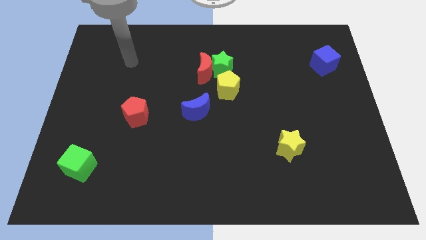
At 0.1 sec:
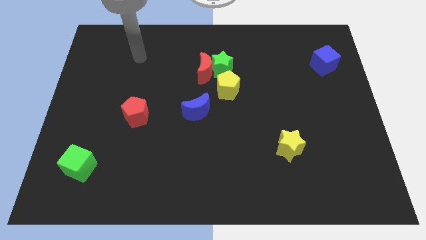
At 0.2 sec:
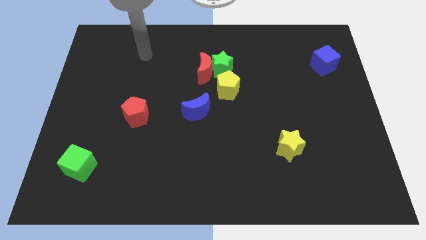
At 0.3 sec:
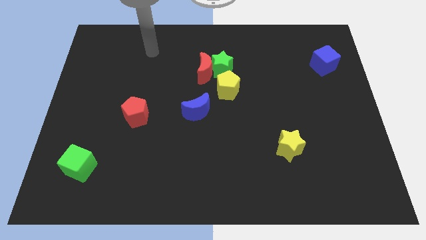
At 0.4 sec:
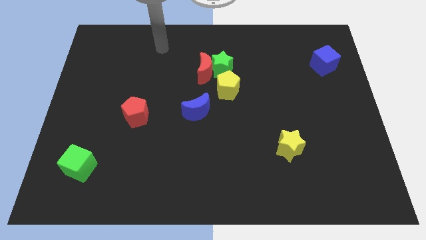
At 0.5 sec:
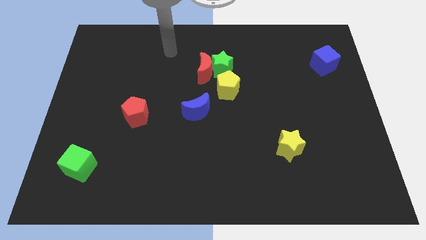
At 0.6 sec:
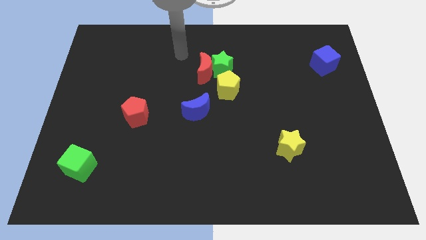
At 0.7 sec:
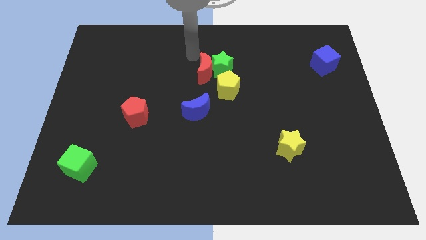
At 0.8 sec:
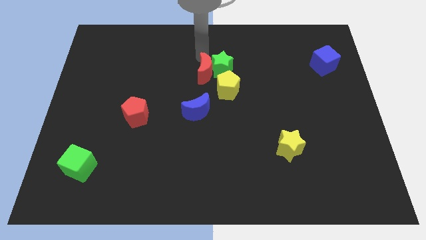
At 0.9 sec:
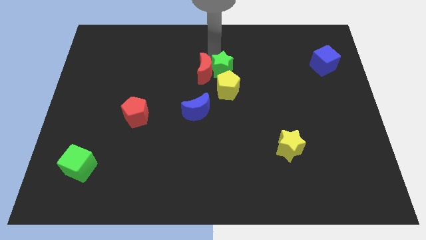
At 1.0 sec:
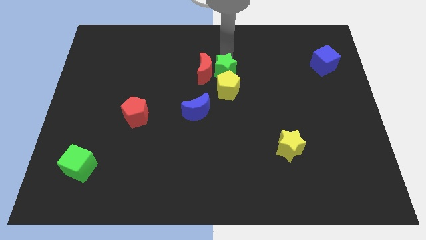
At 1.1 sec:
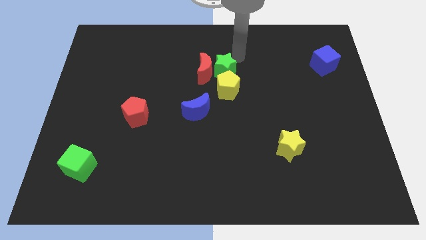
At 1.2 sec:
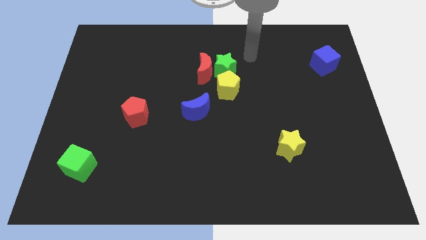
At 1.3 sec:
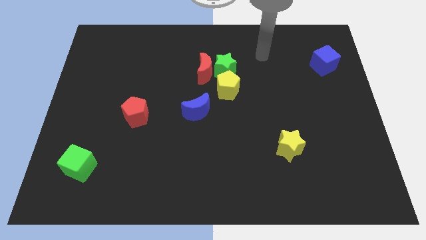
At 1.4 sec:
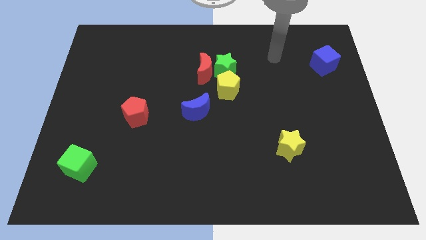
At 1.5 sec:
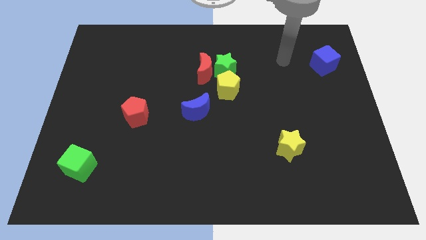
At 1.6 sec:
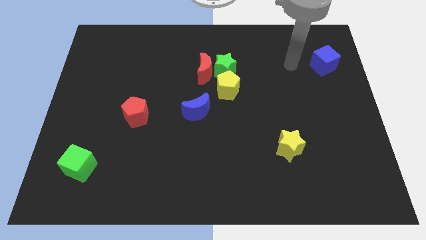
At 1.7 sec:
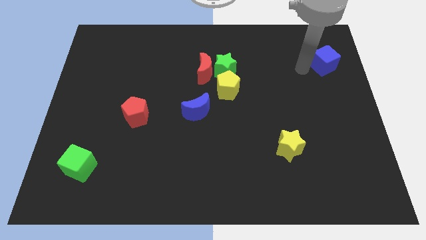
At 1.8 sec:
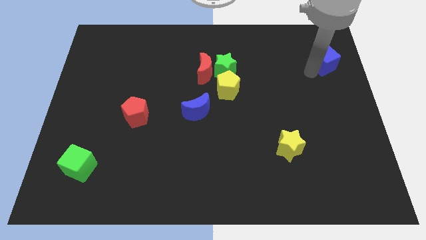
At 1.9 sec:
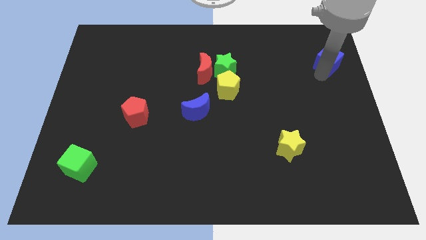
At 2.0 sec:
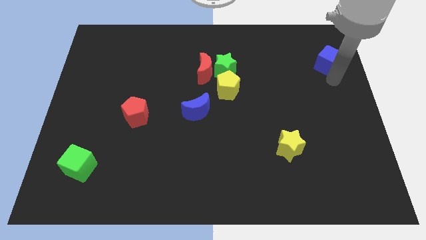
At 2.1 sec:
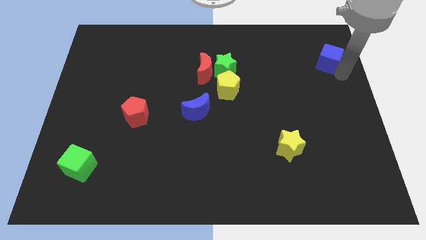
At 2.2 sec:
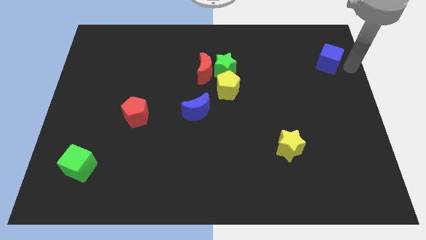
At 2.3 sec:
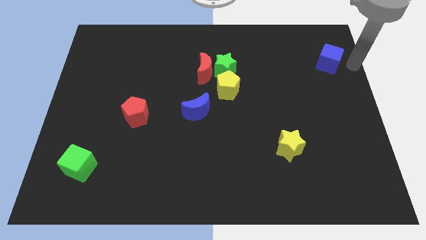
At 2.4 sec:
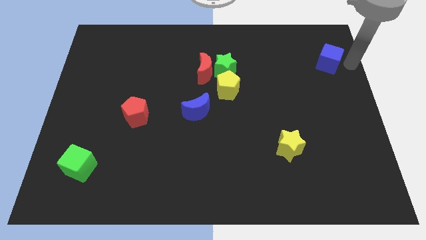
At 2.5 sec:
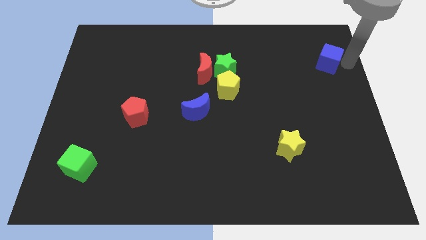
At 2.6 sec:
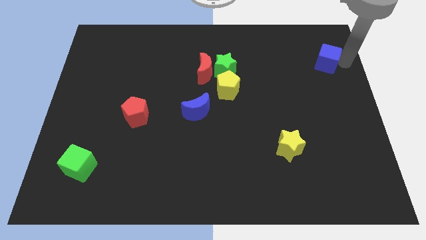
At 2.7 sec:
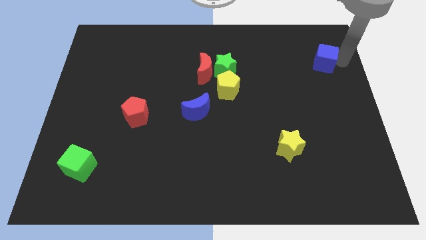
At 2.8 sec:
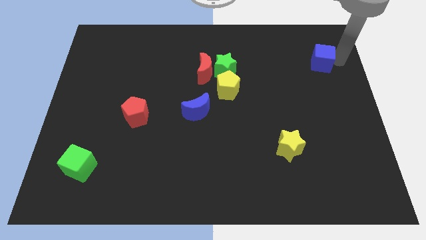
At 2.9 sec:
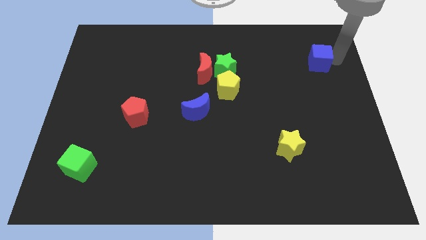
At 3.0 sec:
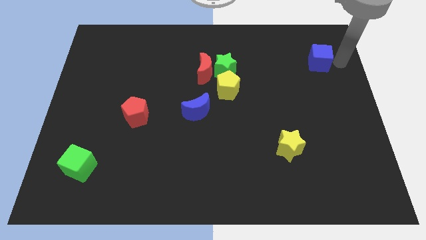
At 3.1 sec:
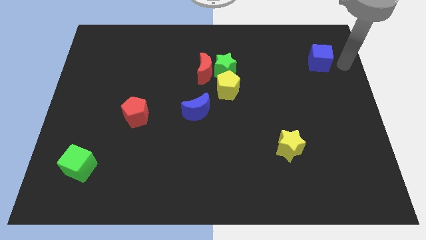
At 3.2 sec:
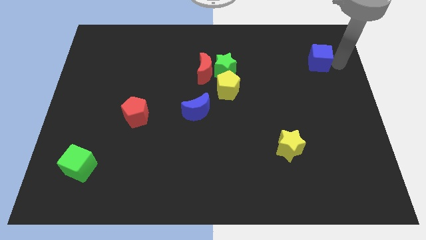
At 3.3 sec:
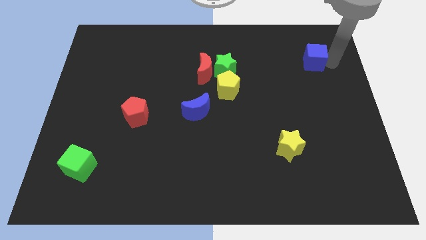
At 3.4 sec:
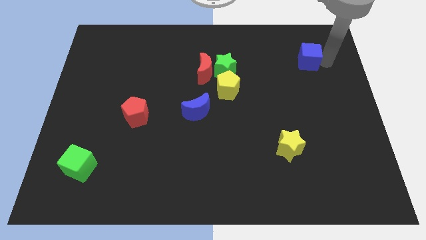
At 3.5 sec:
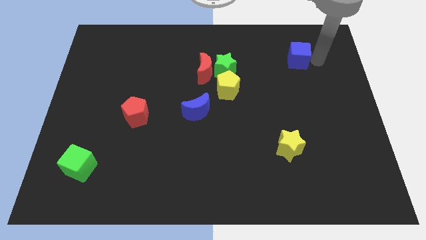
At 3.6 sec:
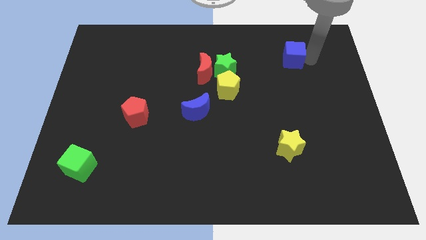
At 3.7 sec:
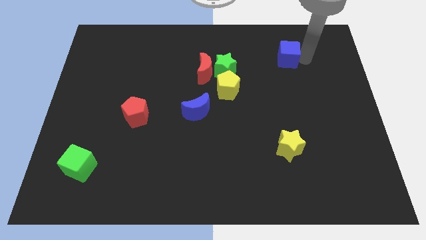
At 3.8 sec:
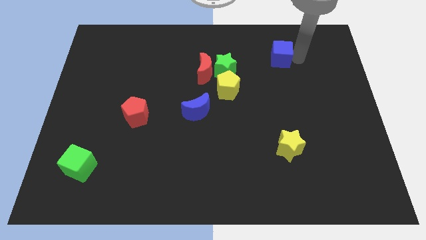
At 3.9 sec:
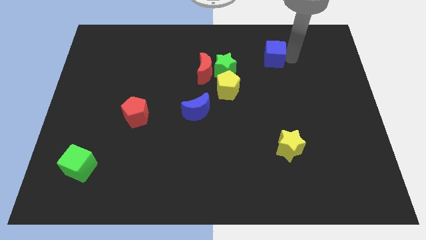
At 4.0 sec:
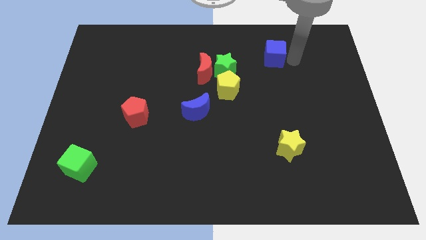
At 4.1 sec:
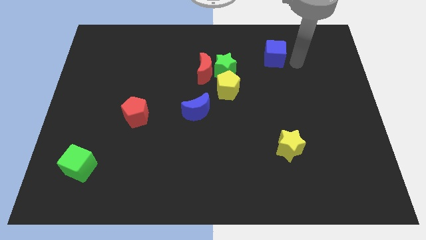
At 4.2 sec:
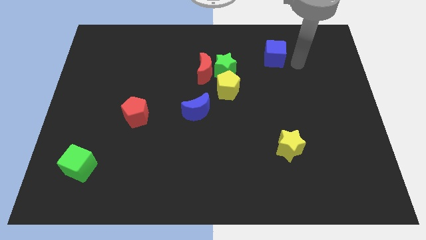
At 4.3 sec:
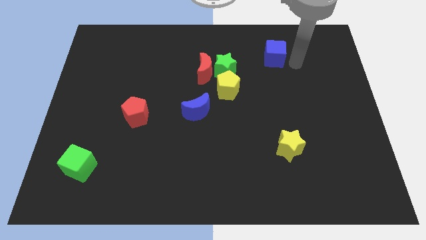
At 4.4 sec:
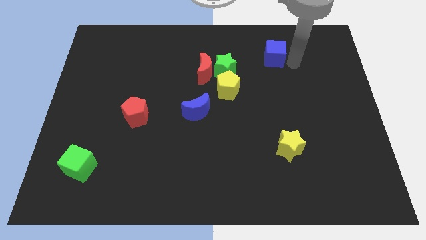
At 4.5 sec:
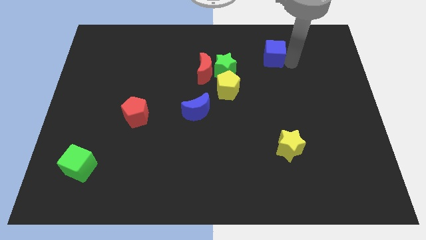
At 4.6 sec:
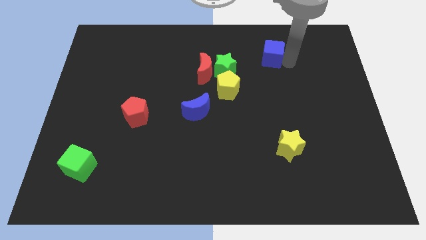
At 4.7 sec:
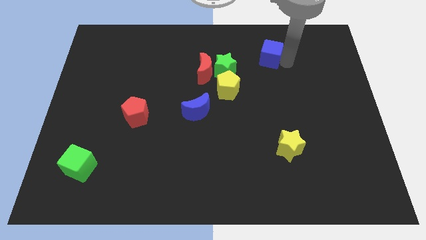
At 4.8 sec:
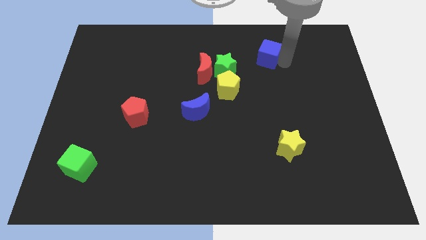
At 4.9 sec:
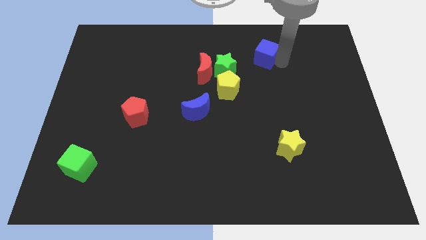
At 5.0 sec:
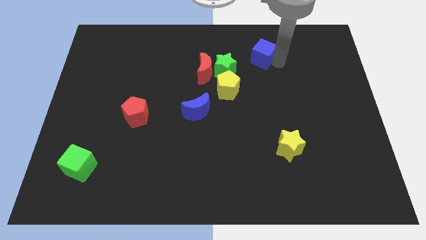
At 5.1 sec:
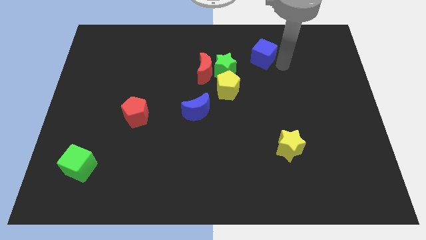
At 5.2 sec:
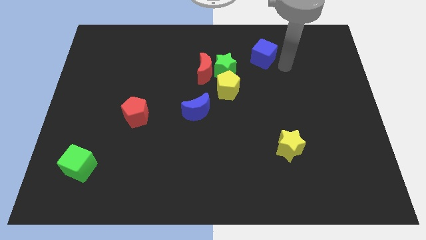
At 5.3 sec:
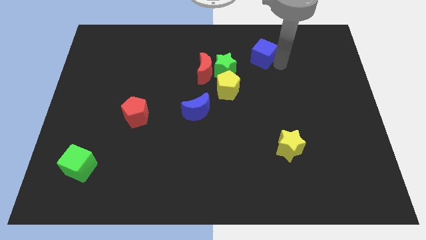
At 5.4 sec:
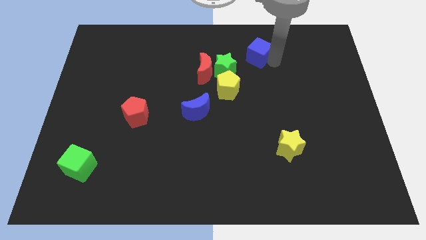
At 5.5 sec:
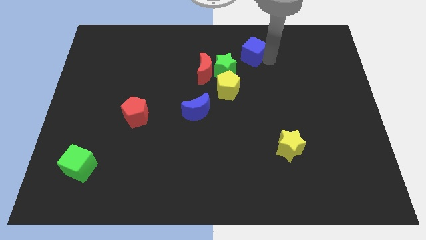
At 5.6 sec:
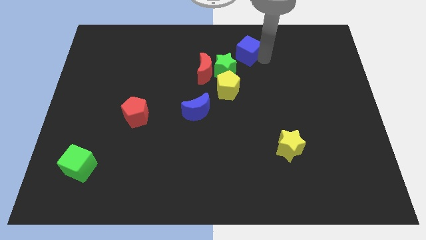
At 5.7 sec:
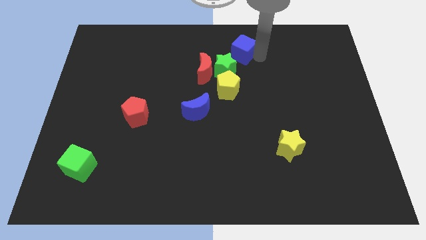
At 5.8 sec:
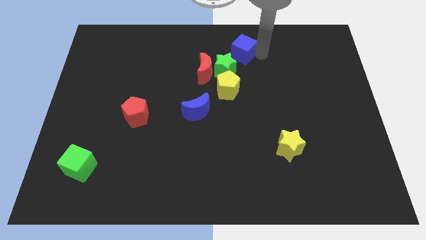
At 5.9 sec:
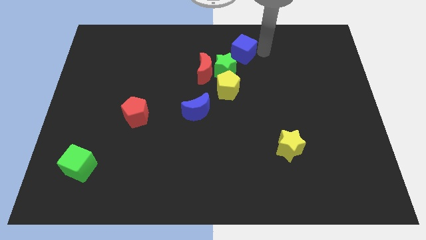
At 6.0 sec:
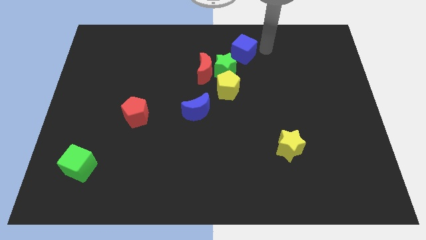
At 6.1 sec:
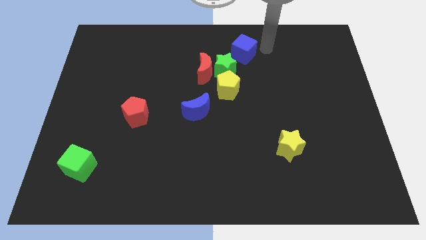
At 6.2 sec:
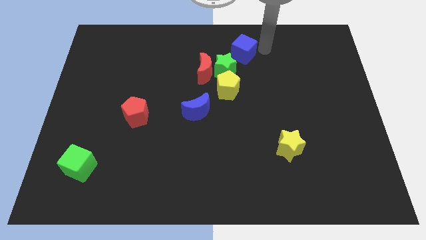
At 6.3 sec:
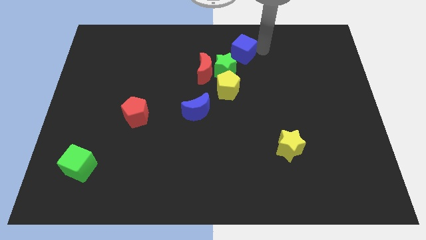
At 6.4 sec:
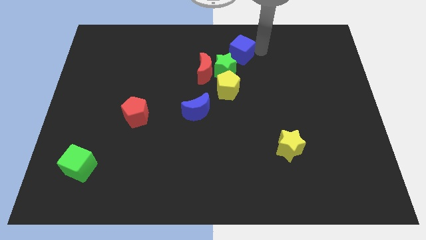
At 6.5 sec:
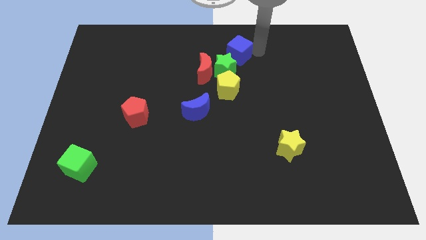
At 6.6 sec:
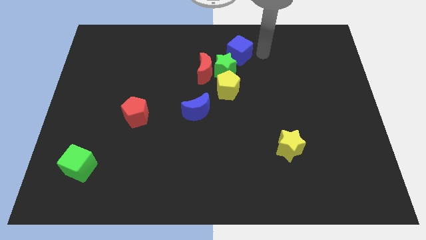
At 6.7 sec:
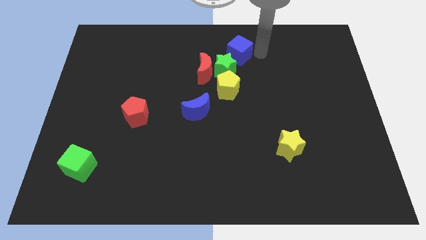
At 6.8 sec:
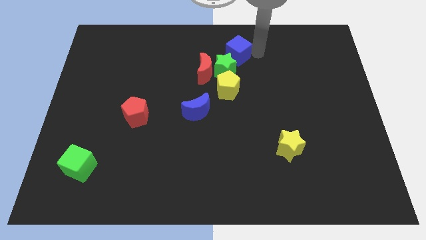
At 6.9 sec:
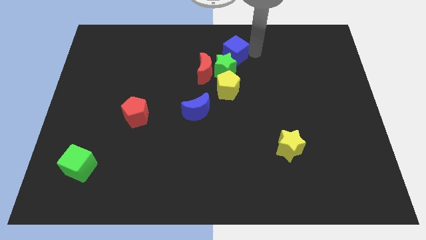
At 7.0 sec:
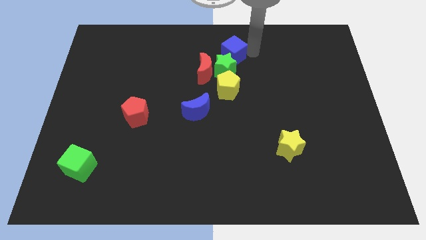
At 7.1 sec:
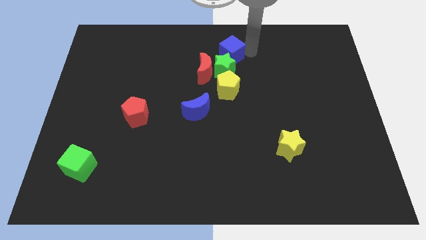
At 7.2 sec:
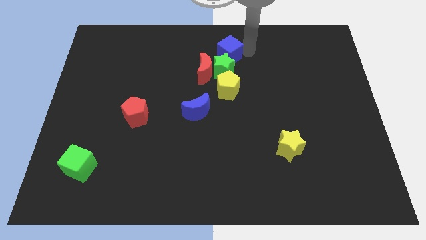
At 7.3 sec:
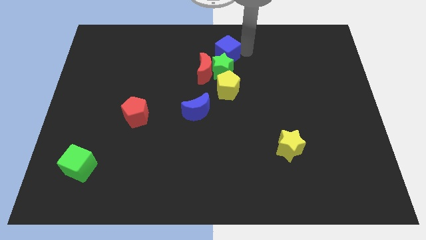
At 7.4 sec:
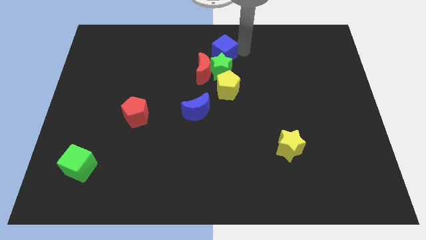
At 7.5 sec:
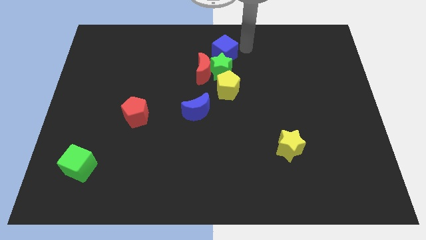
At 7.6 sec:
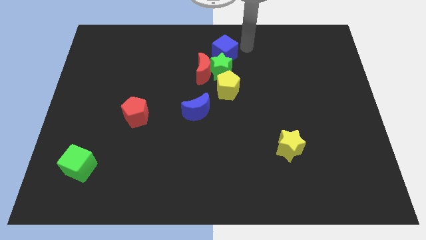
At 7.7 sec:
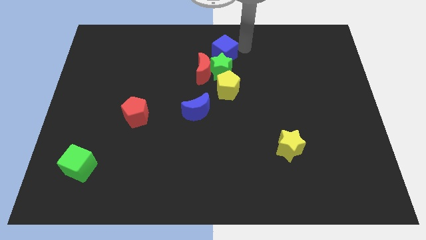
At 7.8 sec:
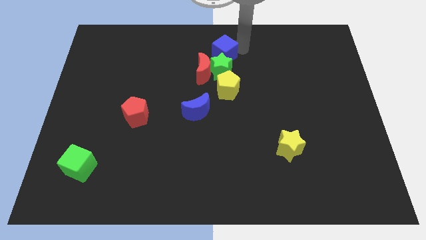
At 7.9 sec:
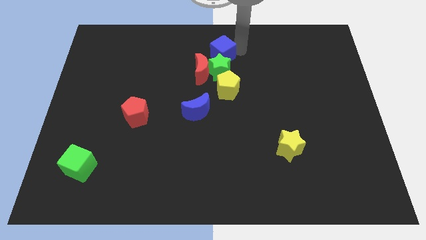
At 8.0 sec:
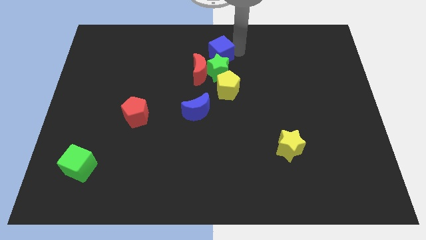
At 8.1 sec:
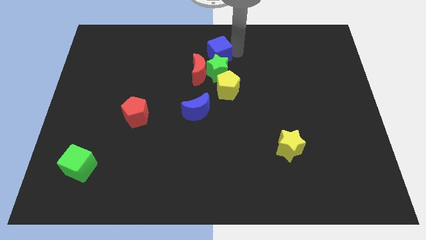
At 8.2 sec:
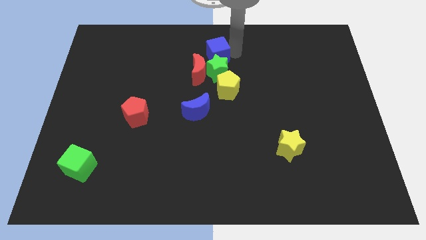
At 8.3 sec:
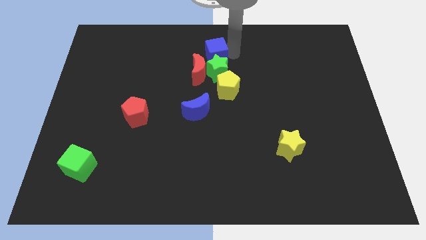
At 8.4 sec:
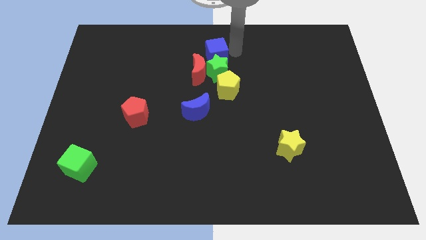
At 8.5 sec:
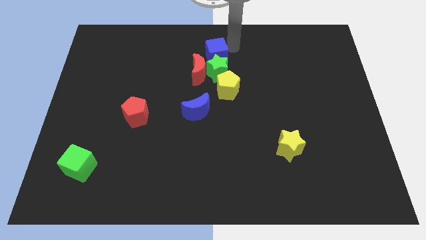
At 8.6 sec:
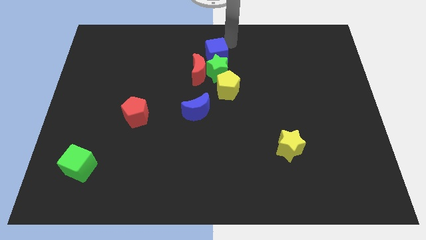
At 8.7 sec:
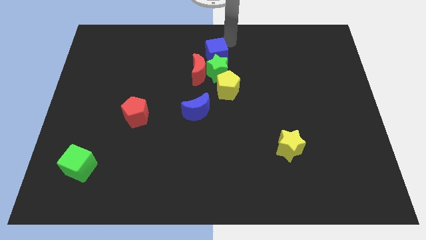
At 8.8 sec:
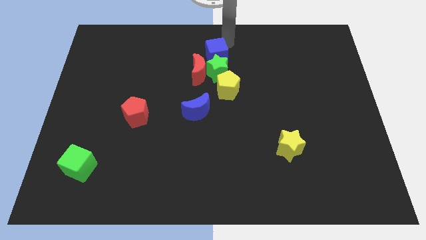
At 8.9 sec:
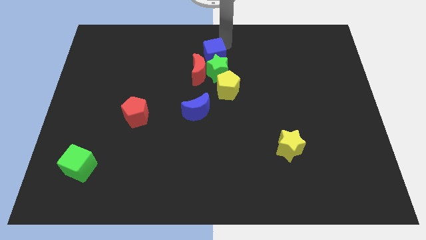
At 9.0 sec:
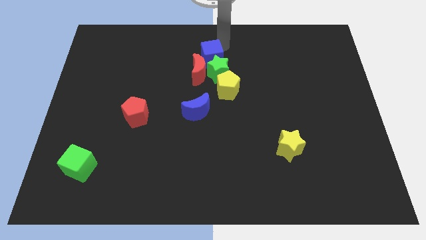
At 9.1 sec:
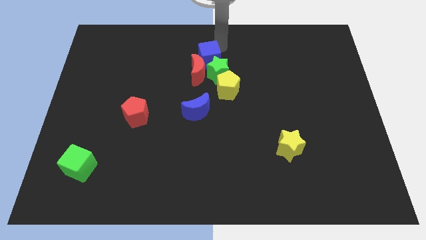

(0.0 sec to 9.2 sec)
push the blue cube to the red moon
